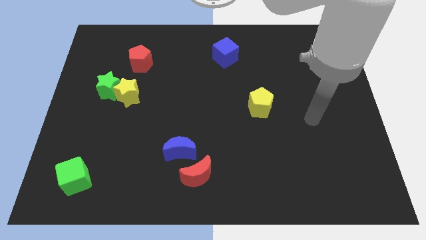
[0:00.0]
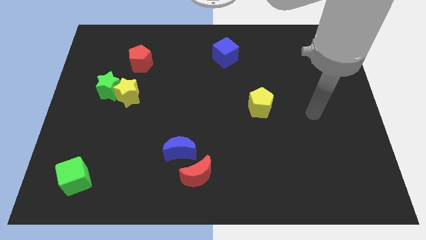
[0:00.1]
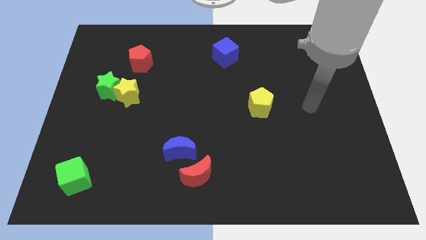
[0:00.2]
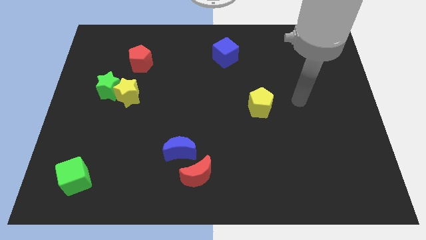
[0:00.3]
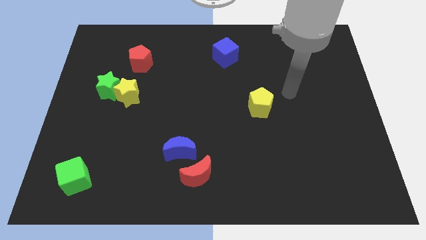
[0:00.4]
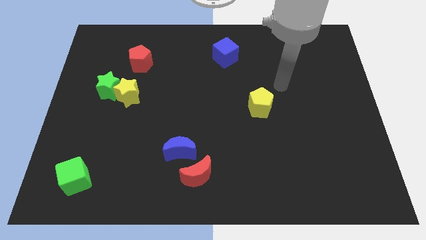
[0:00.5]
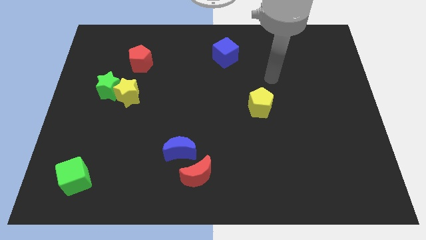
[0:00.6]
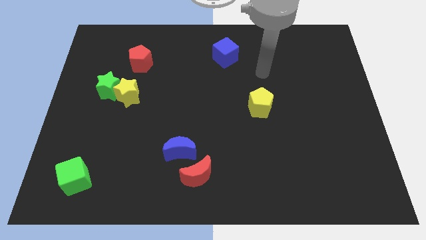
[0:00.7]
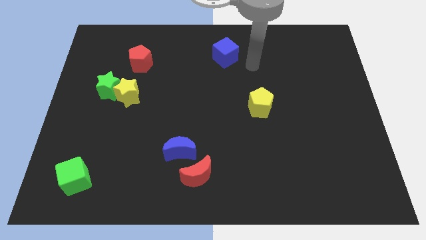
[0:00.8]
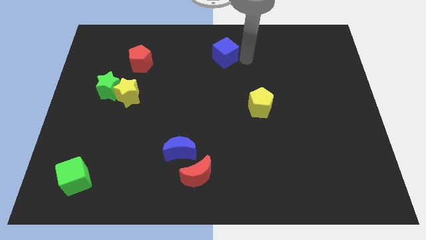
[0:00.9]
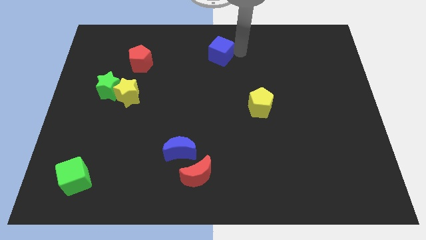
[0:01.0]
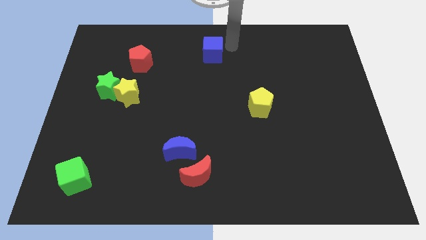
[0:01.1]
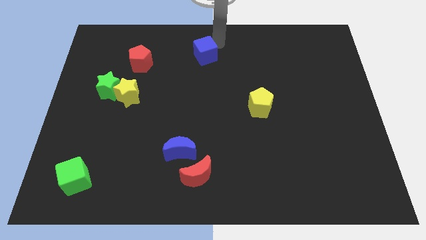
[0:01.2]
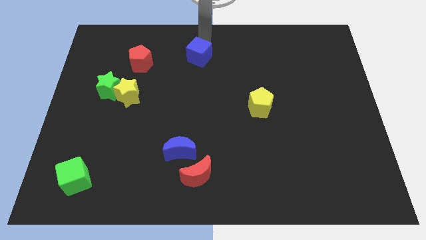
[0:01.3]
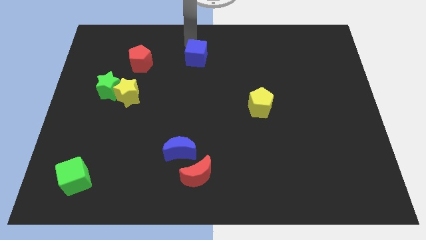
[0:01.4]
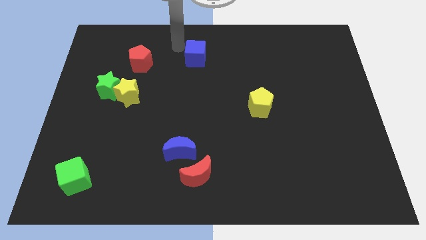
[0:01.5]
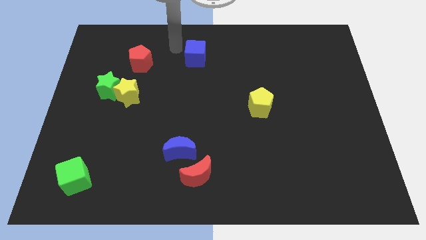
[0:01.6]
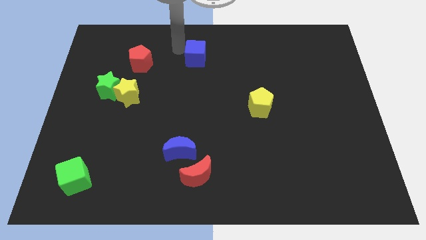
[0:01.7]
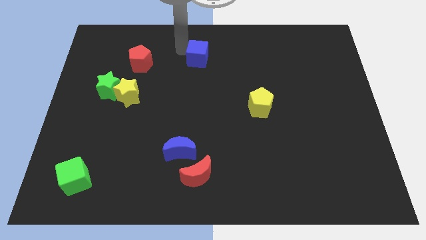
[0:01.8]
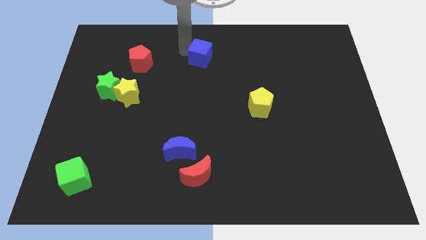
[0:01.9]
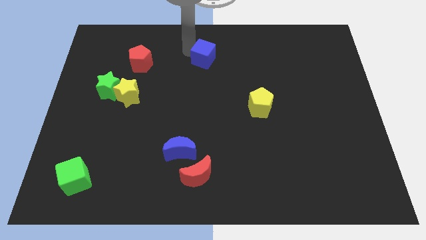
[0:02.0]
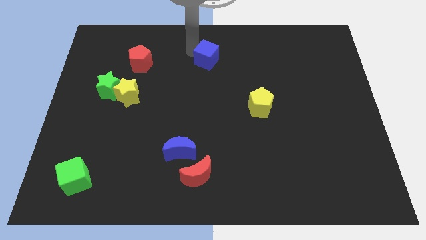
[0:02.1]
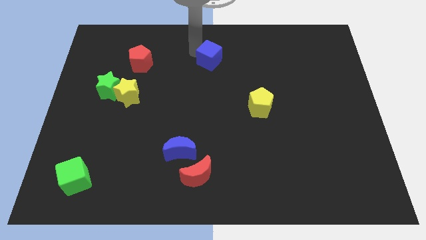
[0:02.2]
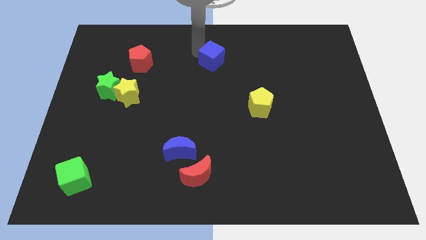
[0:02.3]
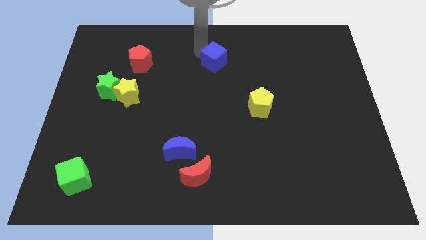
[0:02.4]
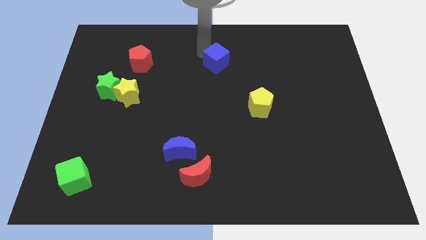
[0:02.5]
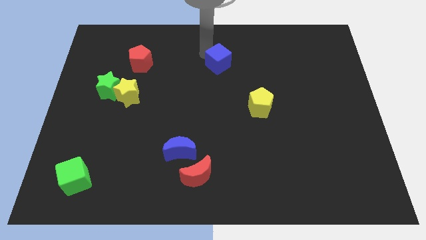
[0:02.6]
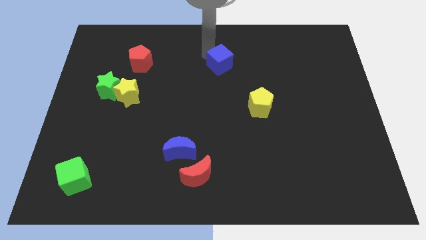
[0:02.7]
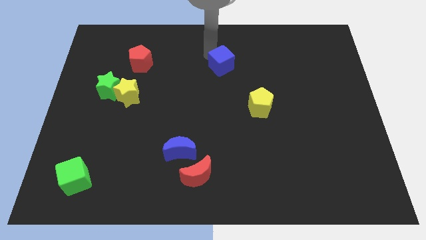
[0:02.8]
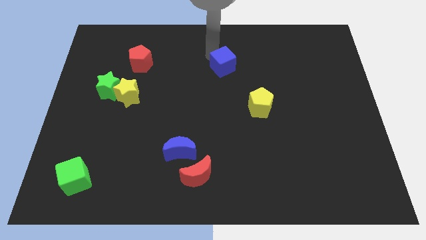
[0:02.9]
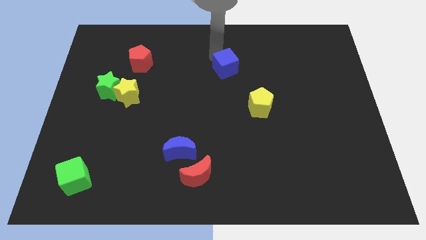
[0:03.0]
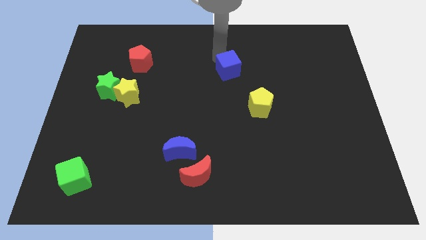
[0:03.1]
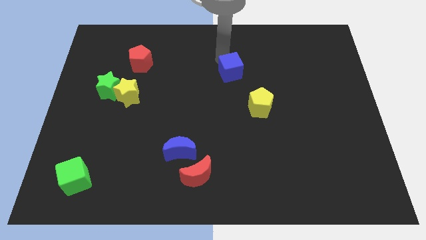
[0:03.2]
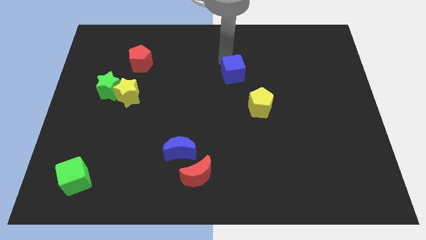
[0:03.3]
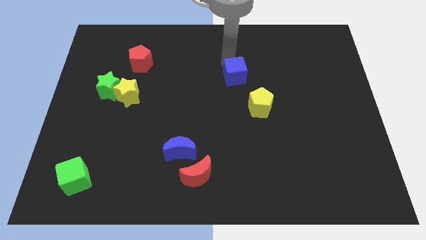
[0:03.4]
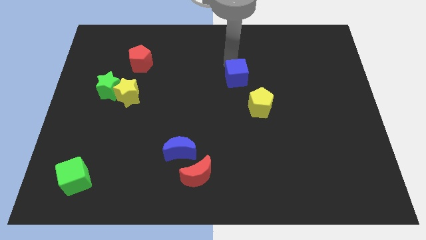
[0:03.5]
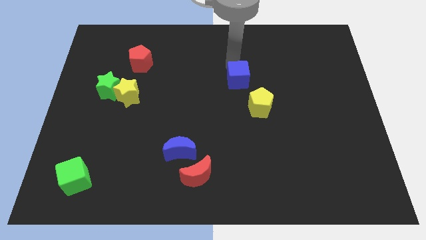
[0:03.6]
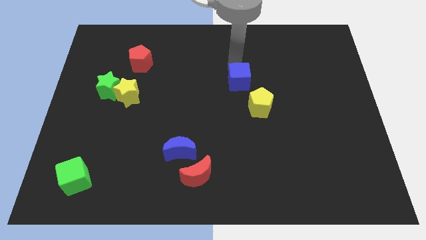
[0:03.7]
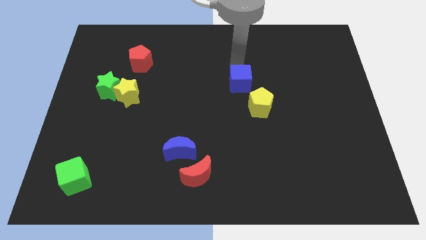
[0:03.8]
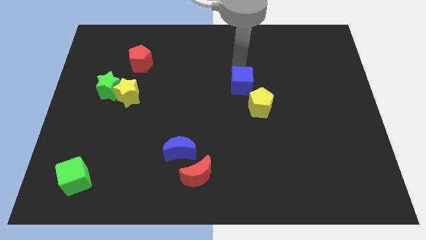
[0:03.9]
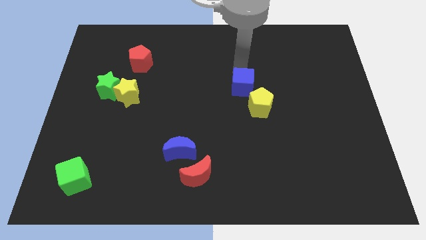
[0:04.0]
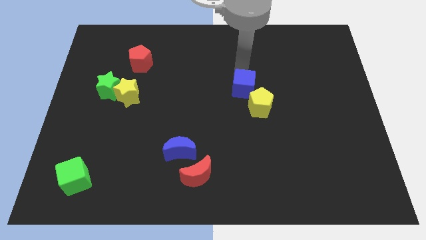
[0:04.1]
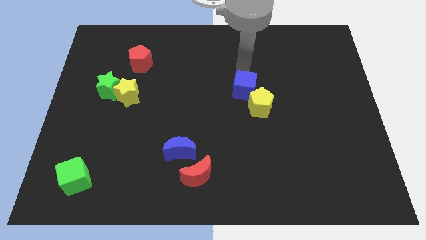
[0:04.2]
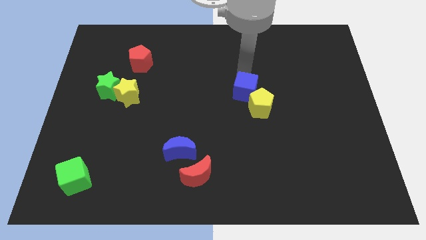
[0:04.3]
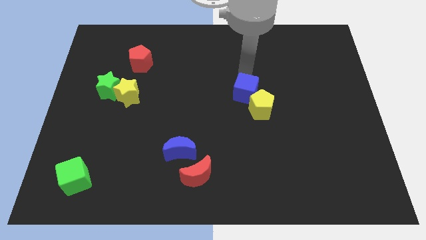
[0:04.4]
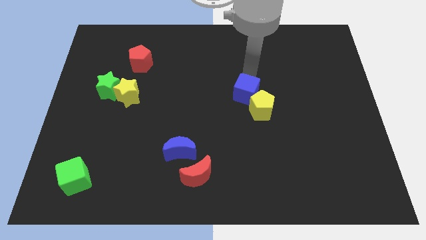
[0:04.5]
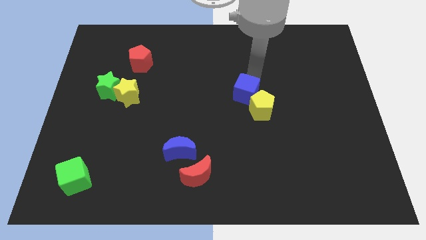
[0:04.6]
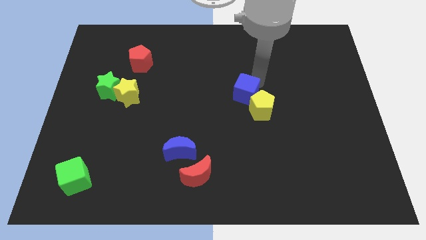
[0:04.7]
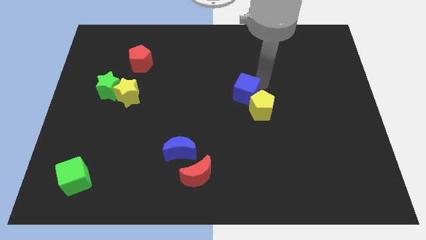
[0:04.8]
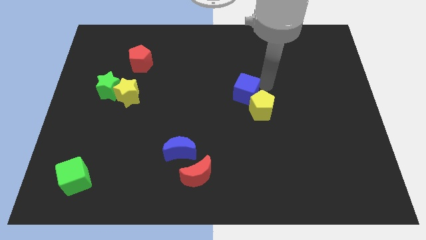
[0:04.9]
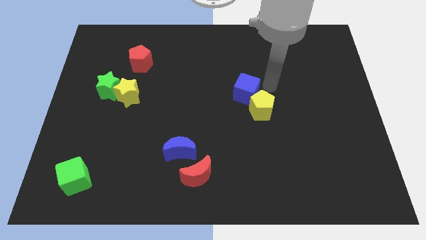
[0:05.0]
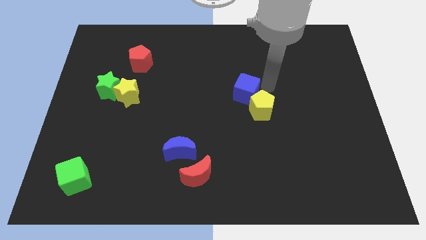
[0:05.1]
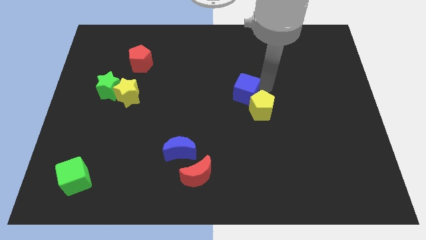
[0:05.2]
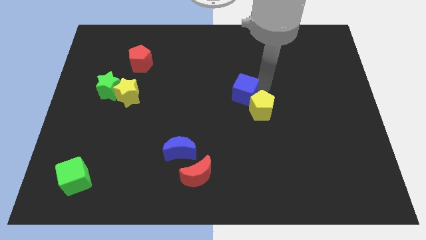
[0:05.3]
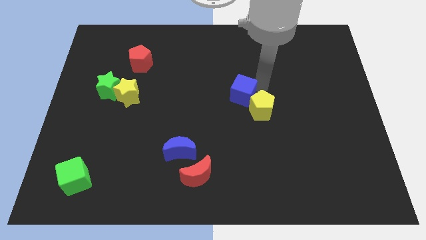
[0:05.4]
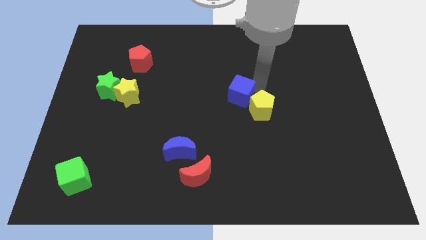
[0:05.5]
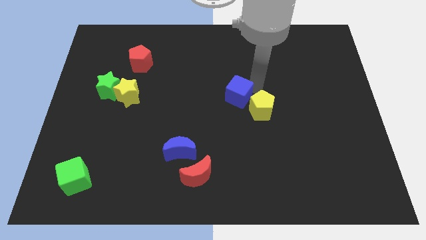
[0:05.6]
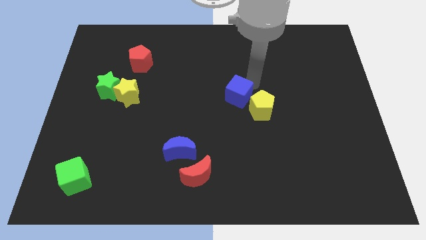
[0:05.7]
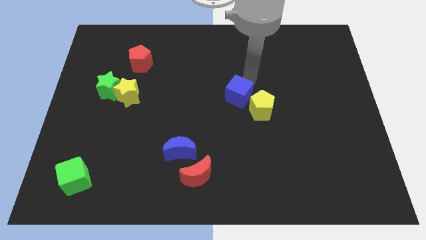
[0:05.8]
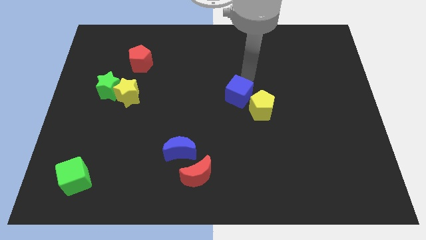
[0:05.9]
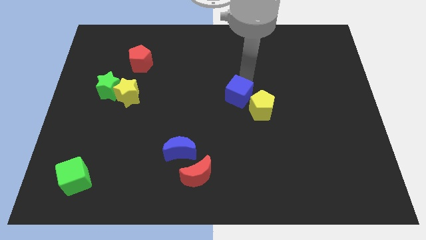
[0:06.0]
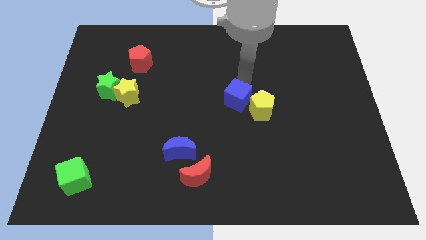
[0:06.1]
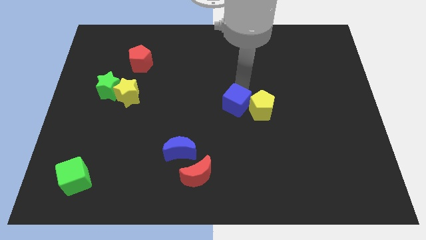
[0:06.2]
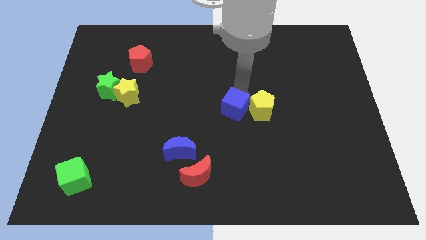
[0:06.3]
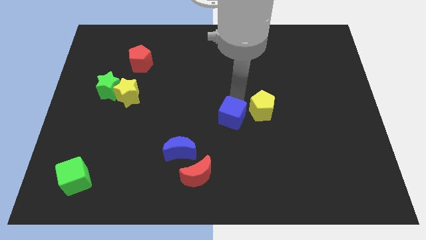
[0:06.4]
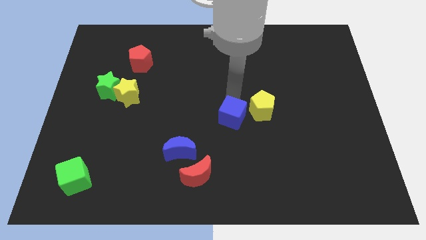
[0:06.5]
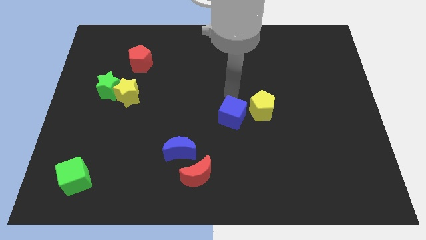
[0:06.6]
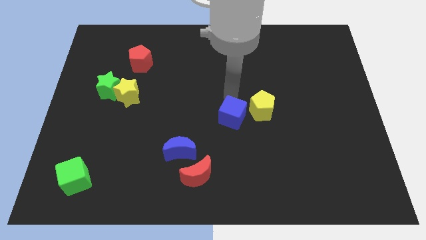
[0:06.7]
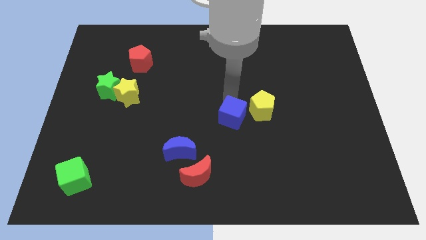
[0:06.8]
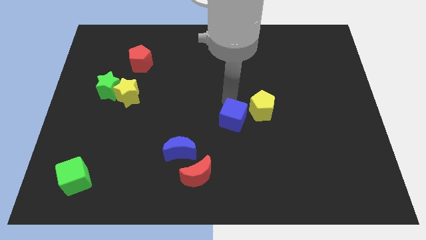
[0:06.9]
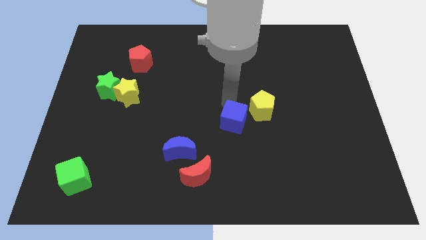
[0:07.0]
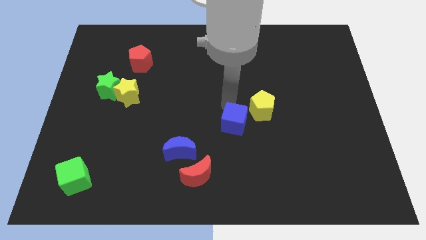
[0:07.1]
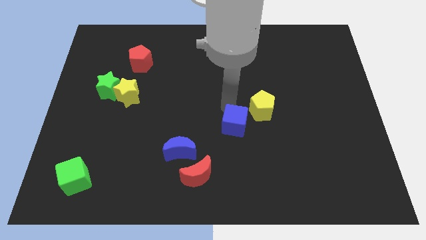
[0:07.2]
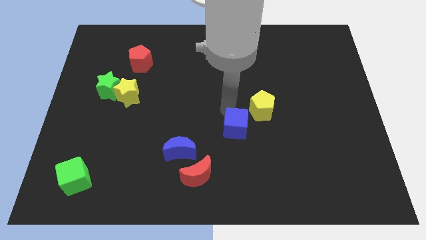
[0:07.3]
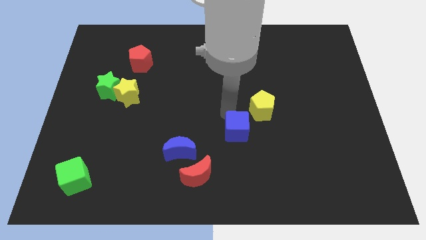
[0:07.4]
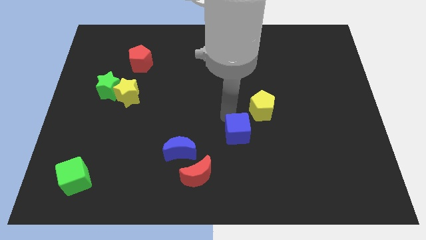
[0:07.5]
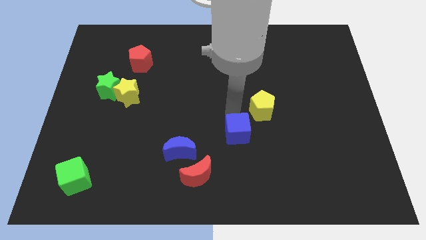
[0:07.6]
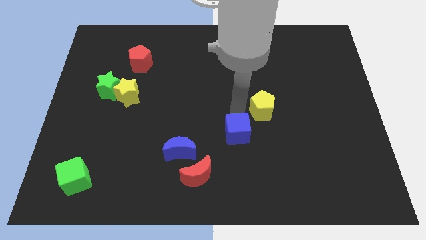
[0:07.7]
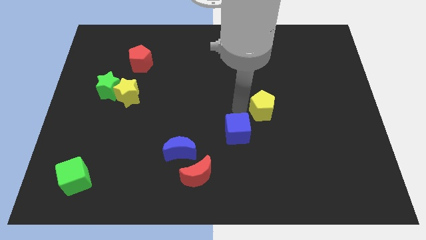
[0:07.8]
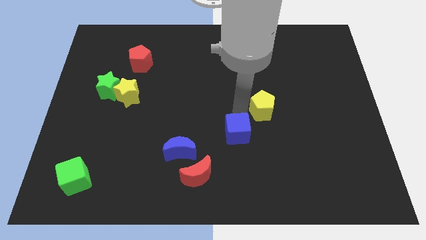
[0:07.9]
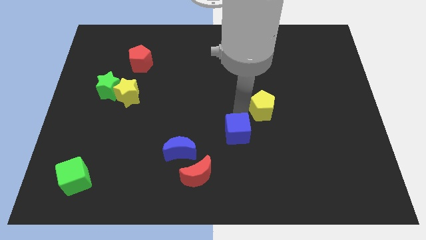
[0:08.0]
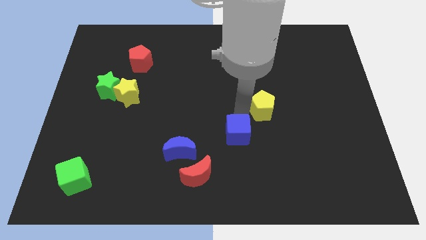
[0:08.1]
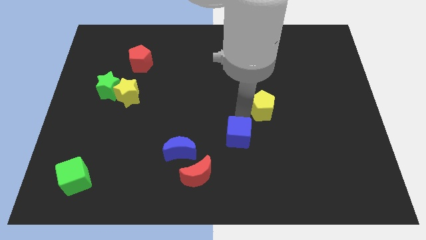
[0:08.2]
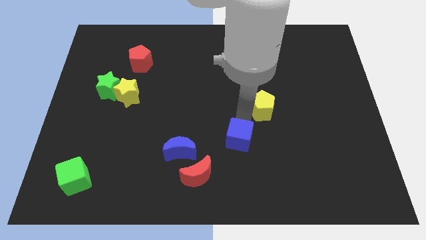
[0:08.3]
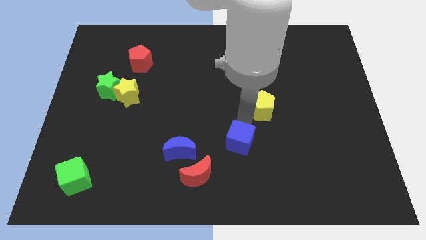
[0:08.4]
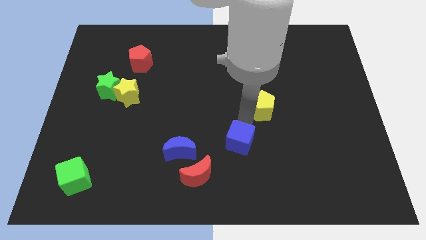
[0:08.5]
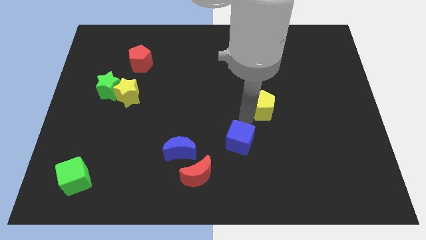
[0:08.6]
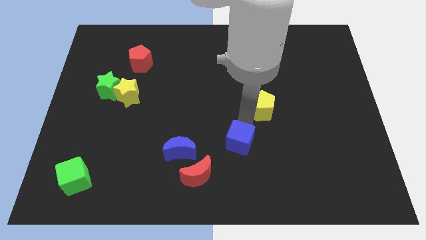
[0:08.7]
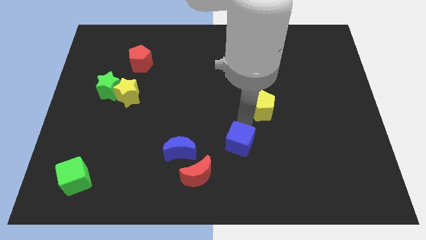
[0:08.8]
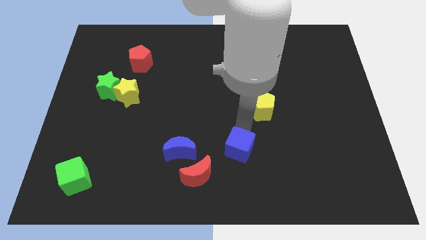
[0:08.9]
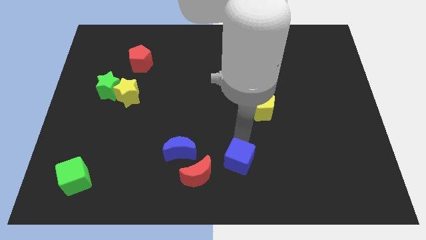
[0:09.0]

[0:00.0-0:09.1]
move the blue cube to the bottom side
